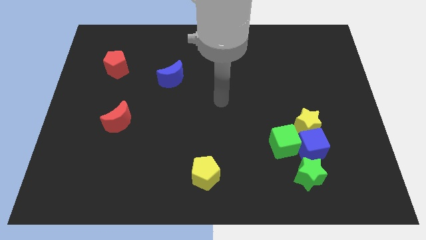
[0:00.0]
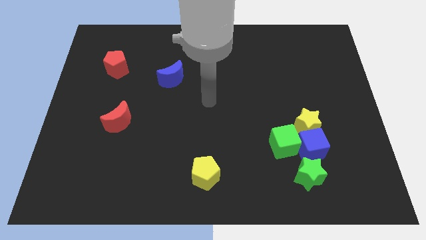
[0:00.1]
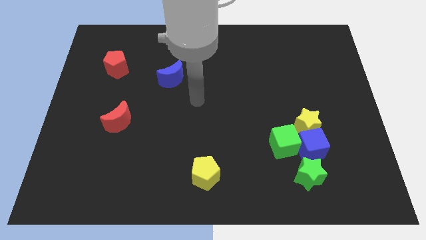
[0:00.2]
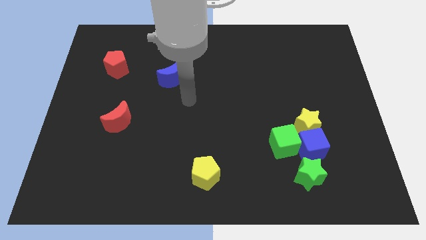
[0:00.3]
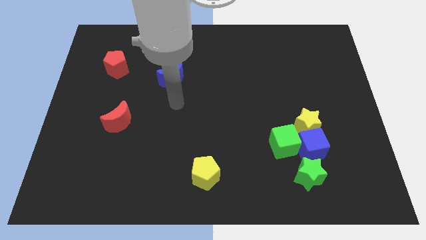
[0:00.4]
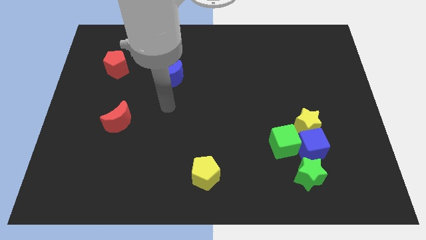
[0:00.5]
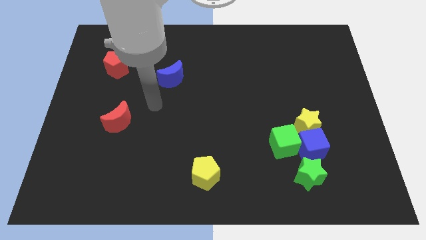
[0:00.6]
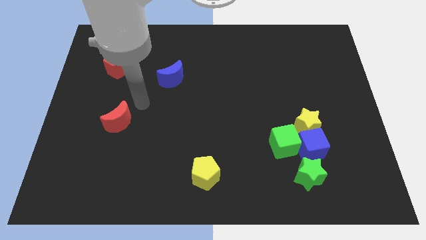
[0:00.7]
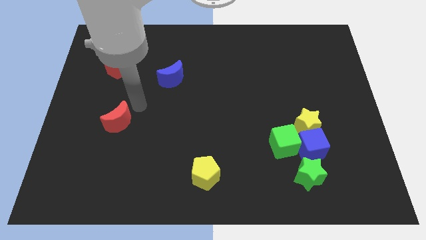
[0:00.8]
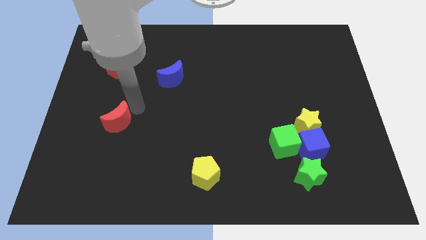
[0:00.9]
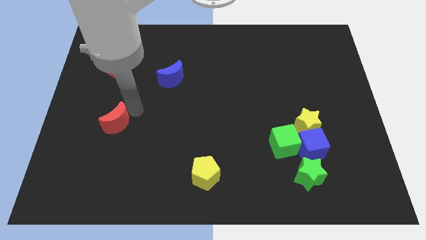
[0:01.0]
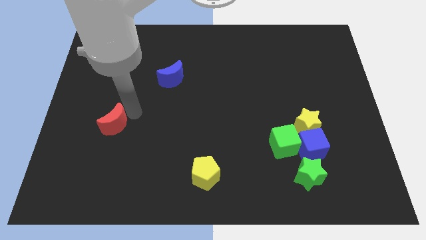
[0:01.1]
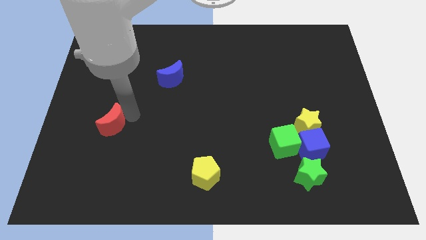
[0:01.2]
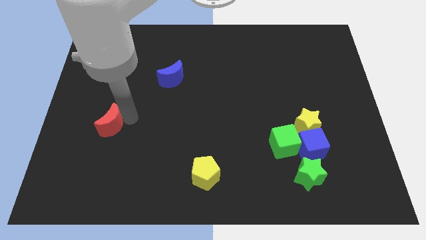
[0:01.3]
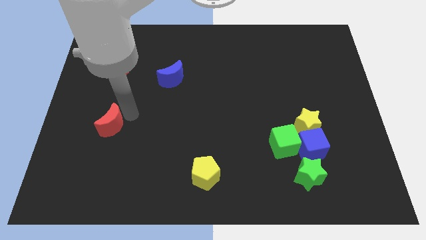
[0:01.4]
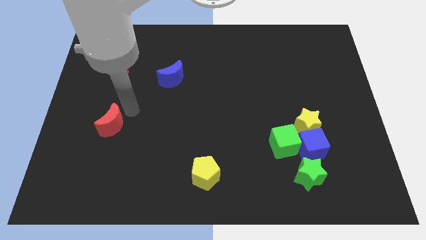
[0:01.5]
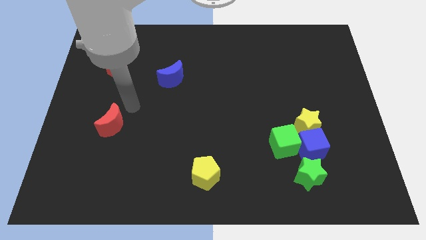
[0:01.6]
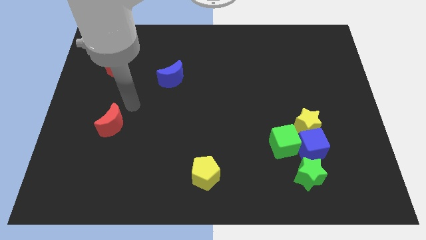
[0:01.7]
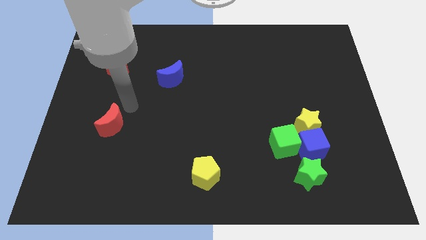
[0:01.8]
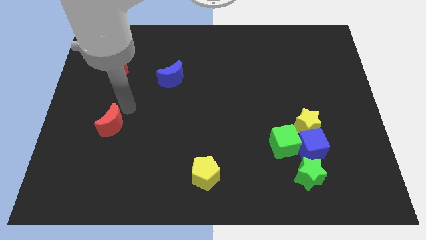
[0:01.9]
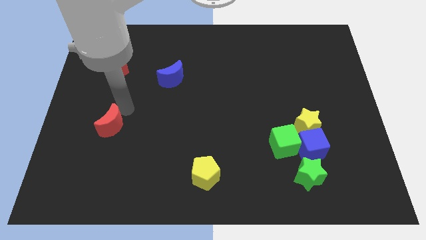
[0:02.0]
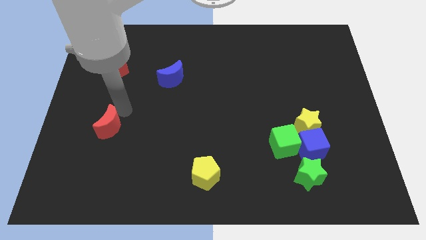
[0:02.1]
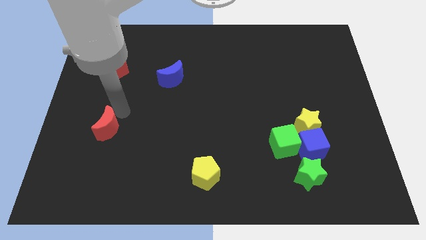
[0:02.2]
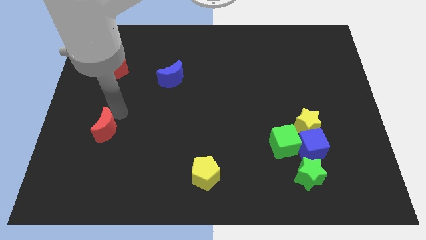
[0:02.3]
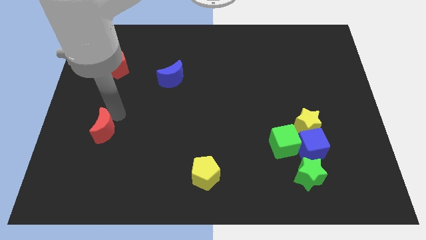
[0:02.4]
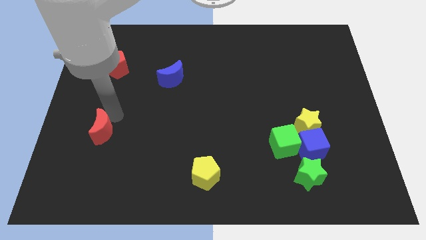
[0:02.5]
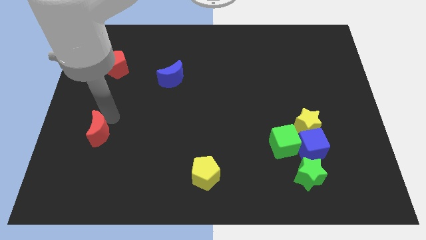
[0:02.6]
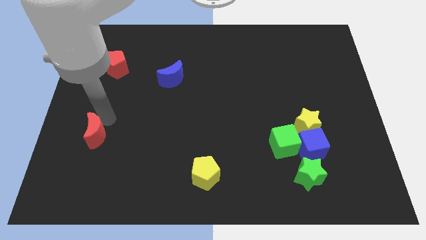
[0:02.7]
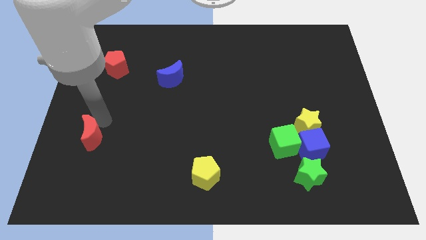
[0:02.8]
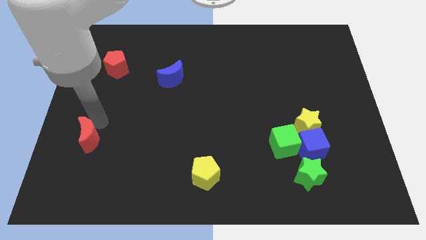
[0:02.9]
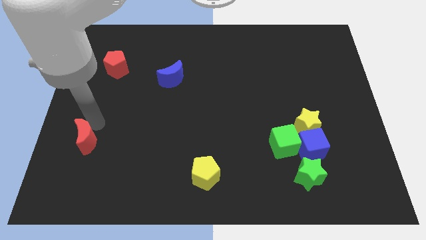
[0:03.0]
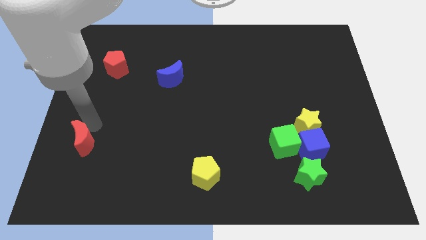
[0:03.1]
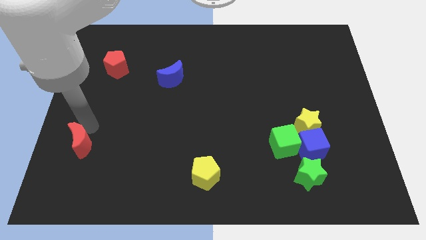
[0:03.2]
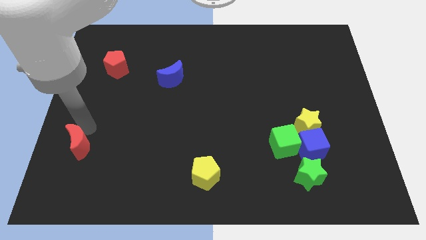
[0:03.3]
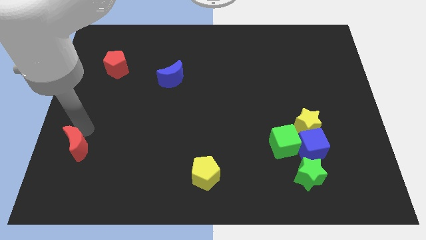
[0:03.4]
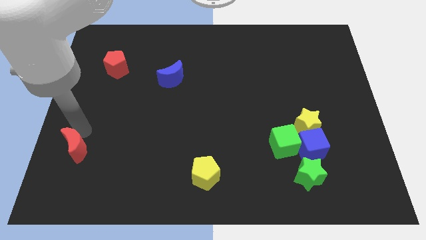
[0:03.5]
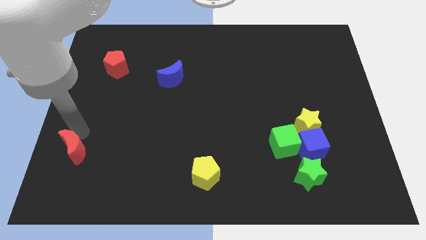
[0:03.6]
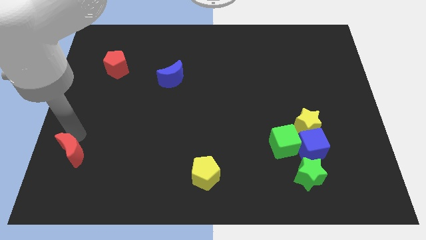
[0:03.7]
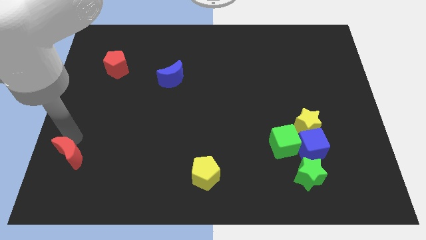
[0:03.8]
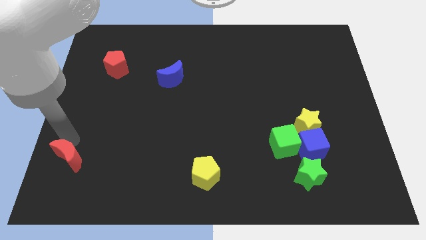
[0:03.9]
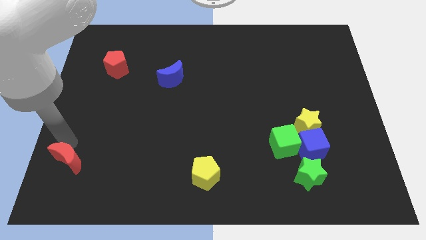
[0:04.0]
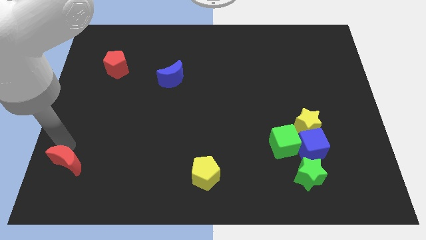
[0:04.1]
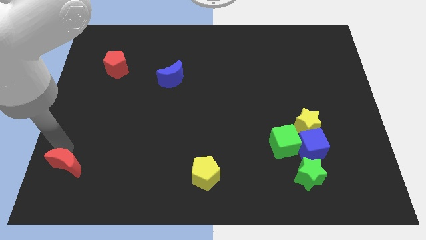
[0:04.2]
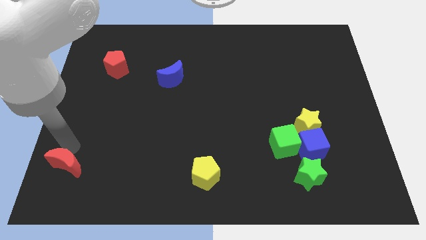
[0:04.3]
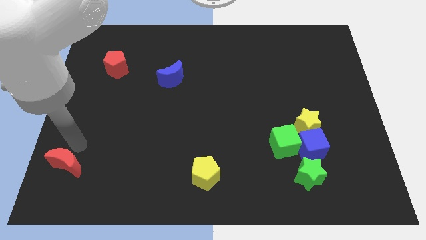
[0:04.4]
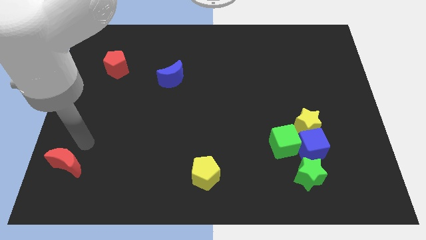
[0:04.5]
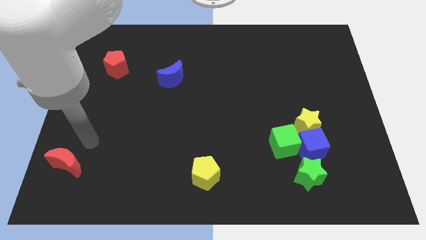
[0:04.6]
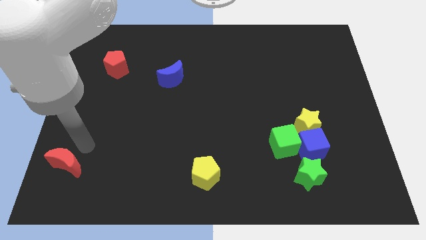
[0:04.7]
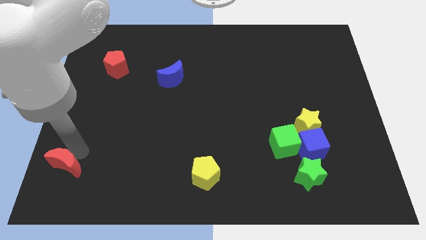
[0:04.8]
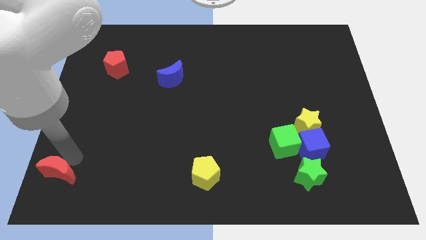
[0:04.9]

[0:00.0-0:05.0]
slide the red moon to the bottom left of the board

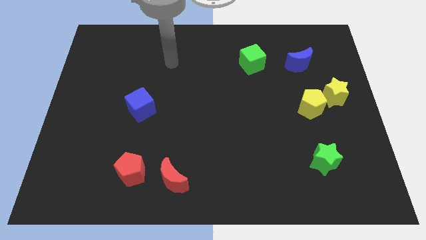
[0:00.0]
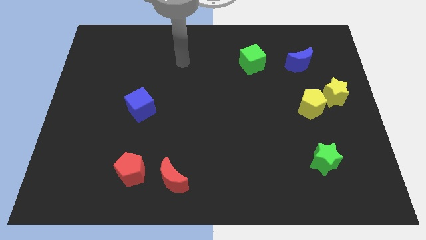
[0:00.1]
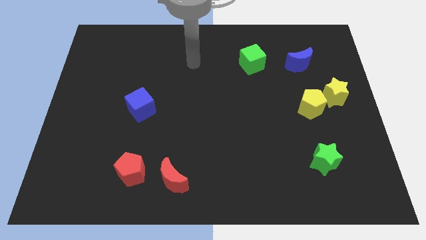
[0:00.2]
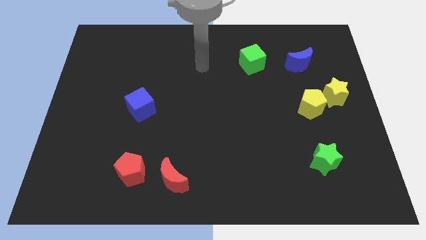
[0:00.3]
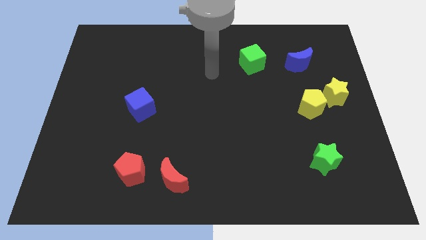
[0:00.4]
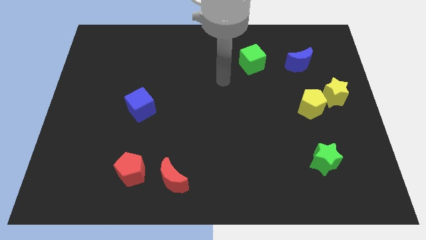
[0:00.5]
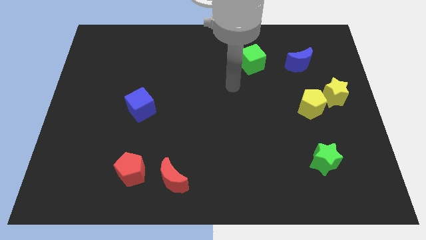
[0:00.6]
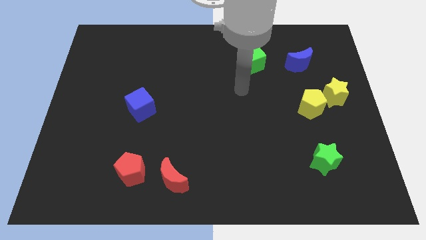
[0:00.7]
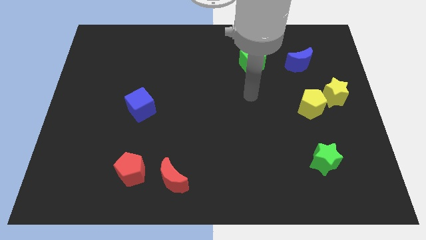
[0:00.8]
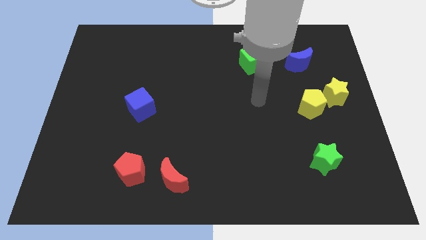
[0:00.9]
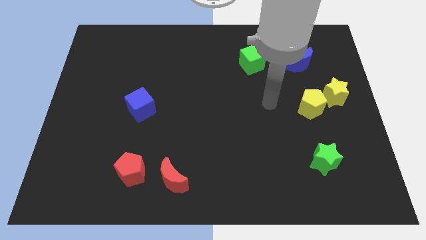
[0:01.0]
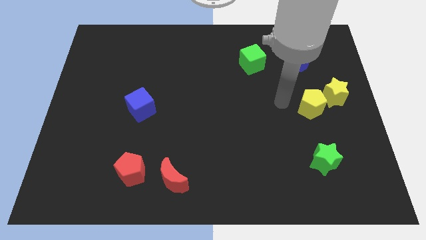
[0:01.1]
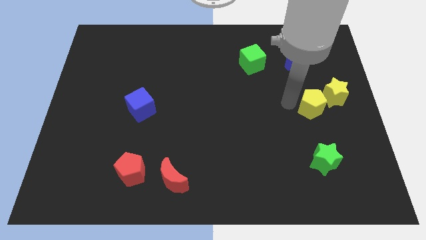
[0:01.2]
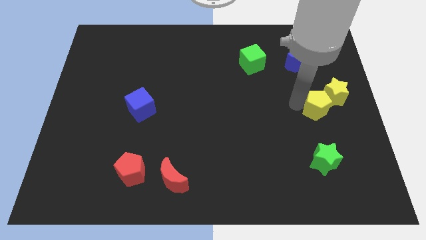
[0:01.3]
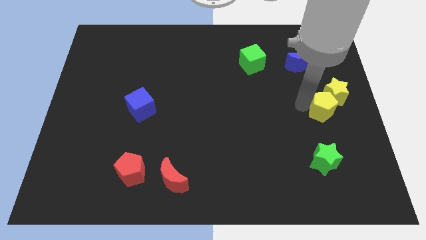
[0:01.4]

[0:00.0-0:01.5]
move the yellow pentagon to the right side
